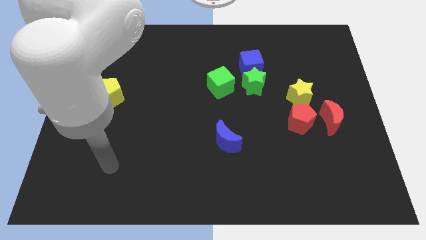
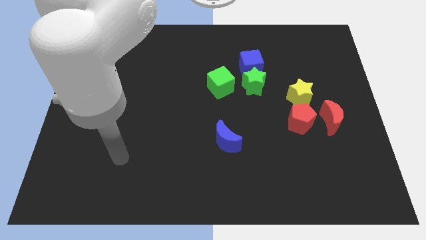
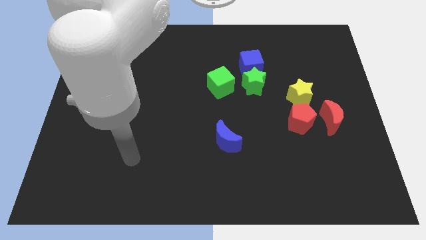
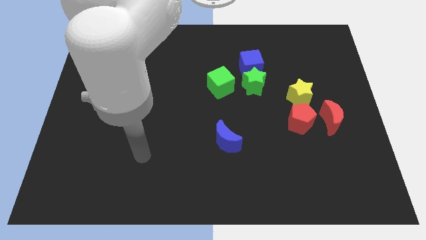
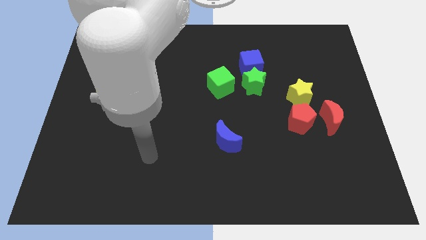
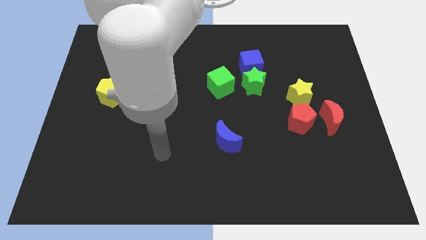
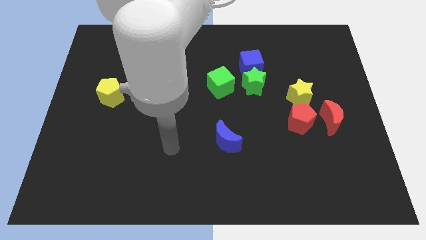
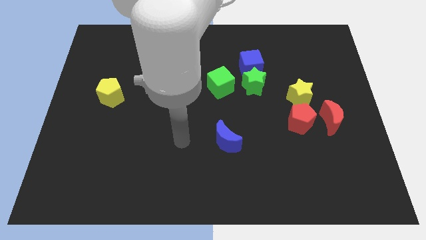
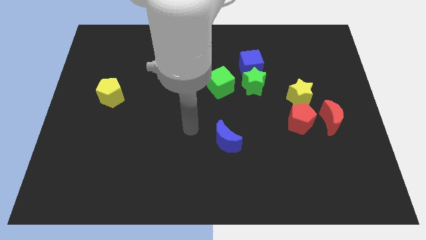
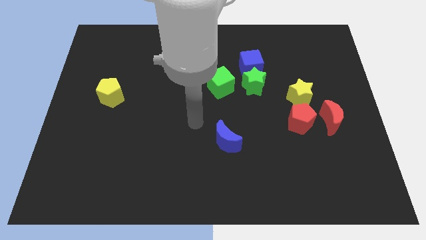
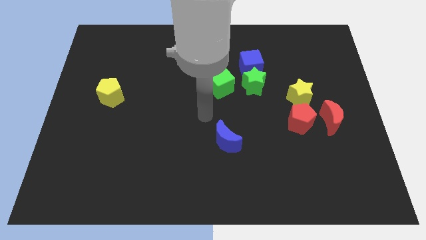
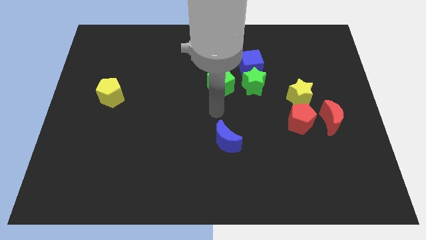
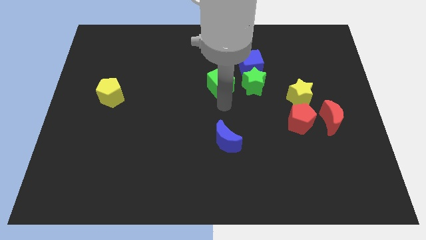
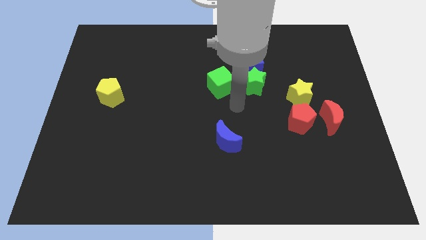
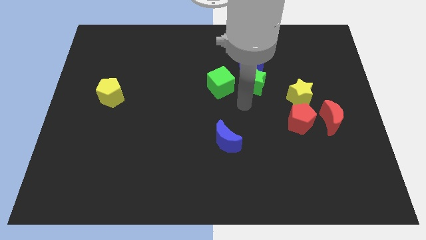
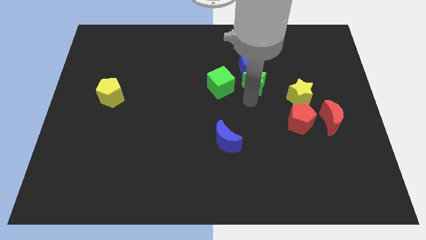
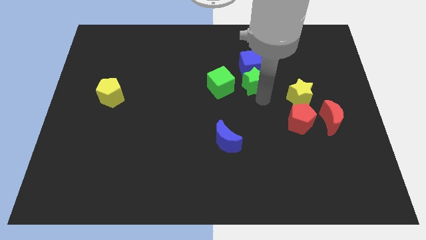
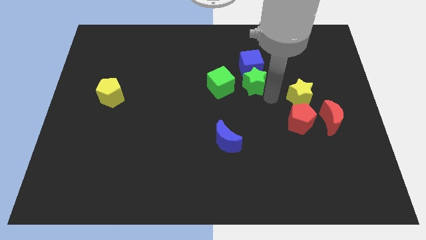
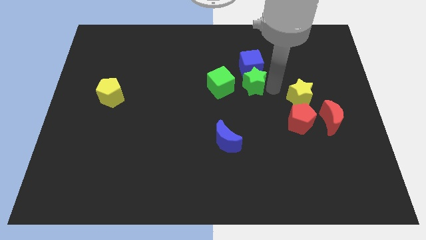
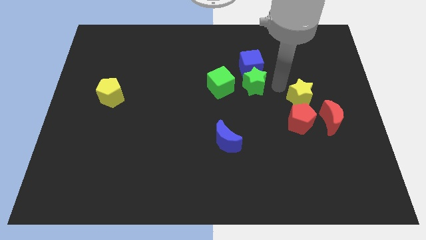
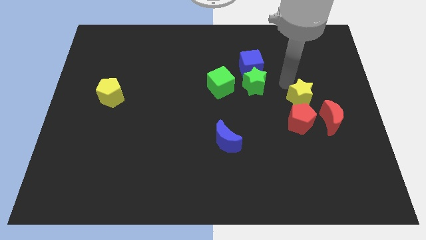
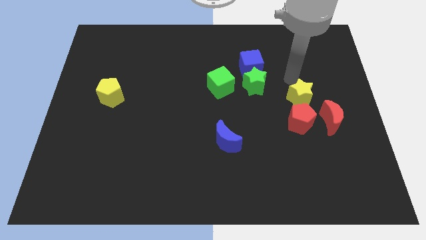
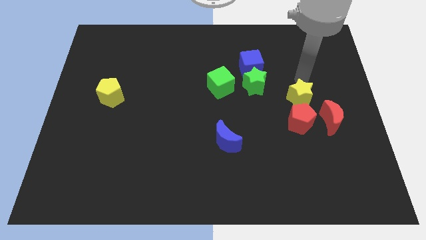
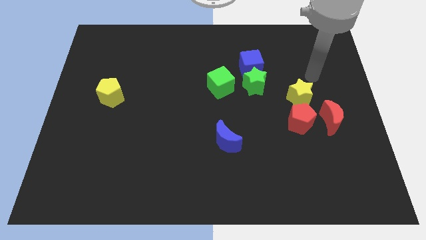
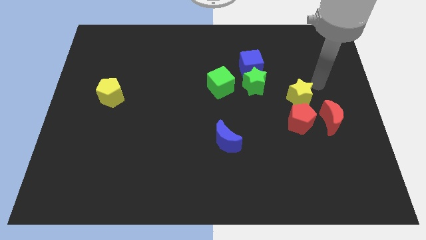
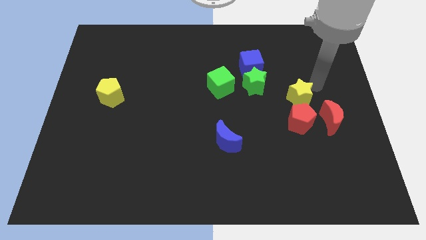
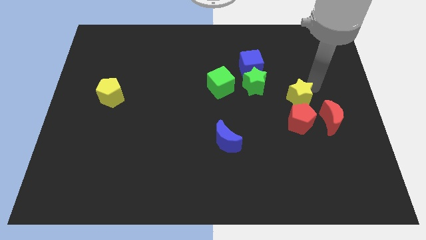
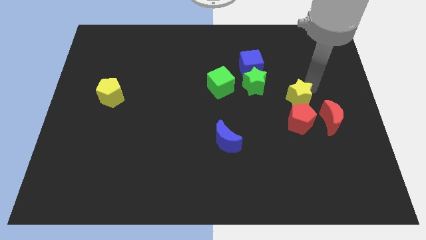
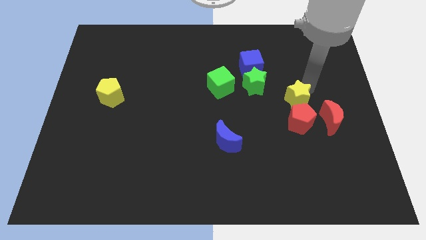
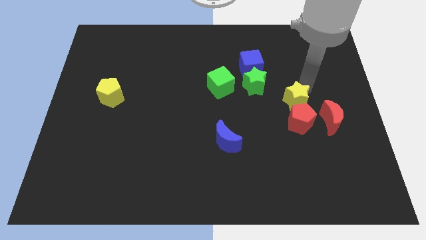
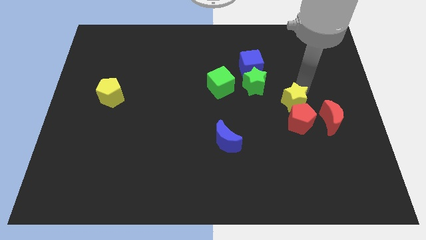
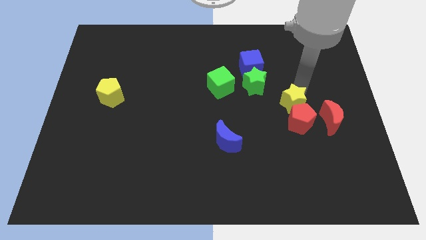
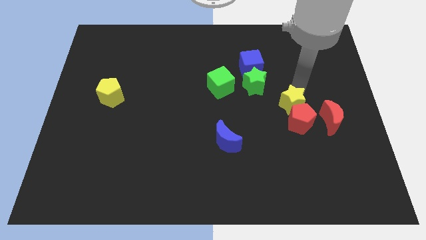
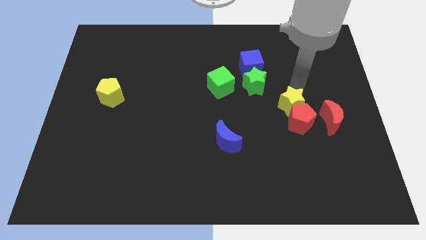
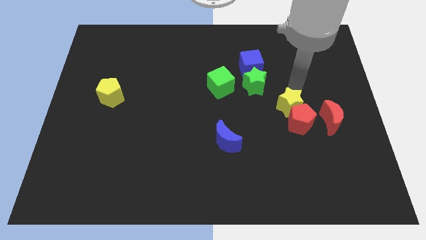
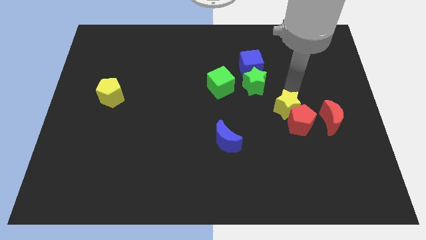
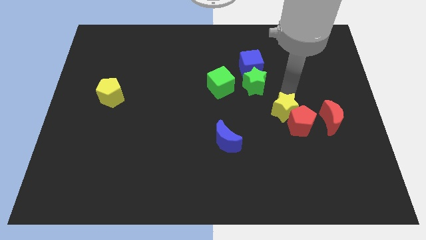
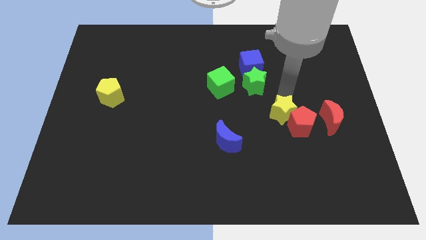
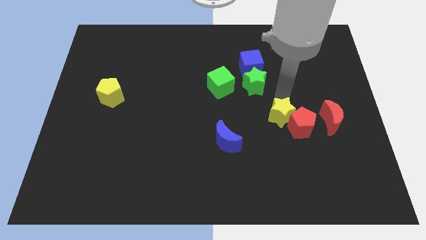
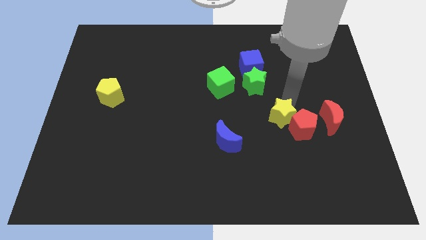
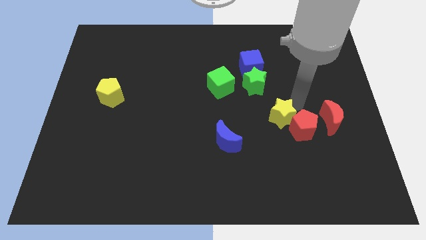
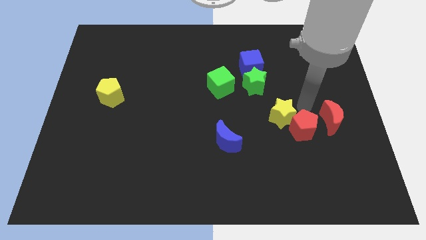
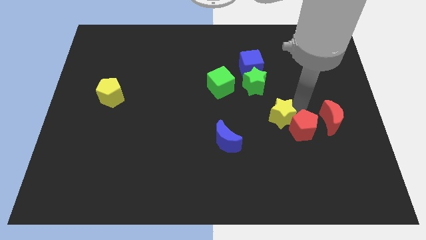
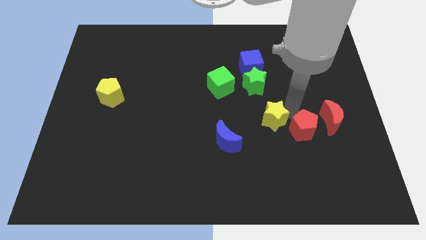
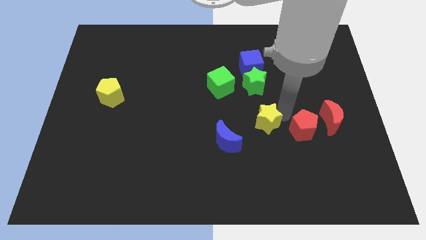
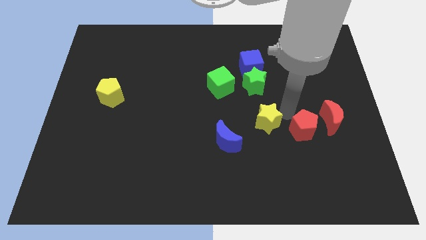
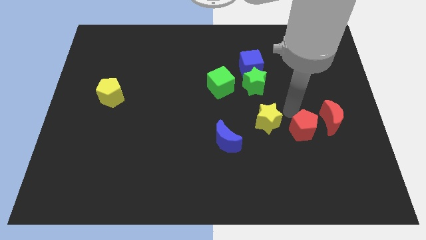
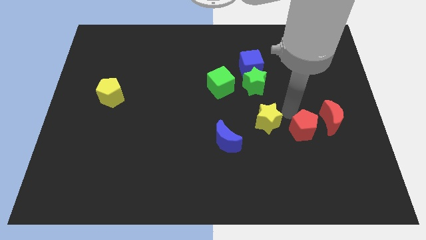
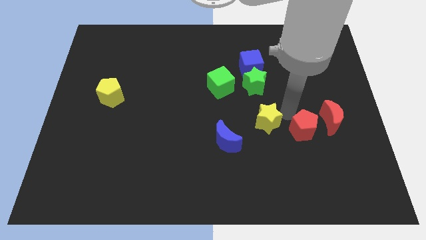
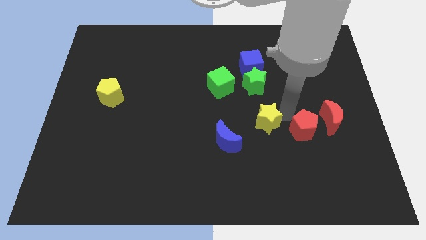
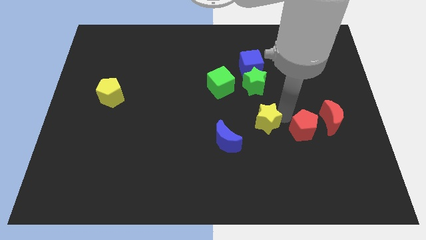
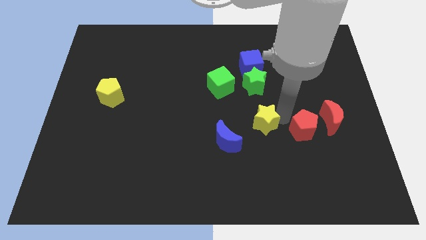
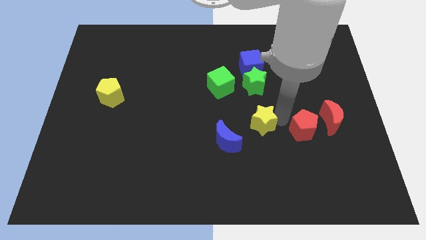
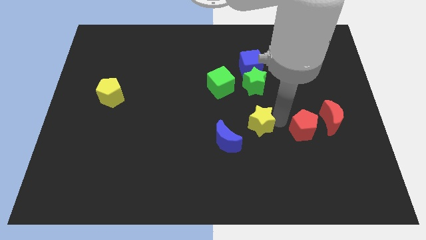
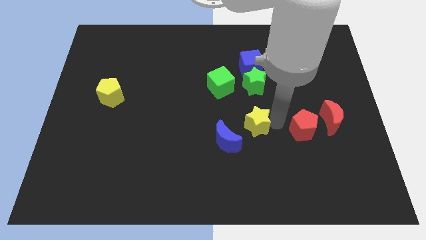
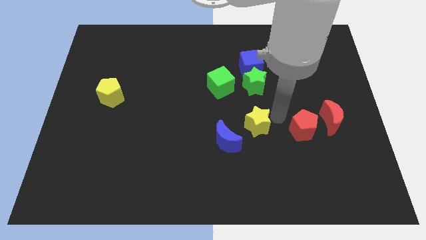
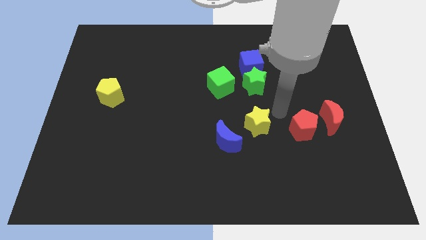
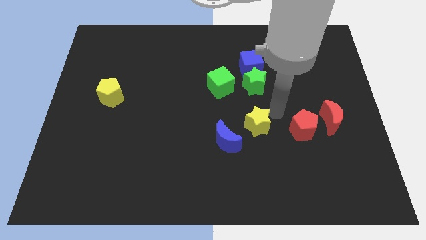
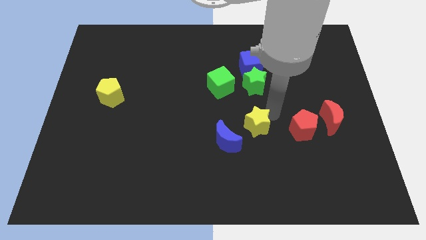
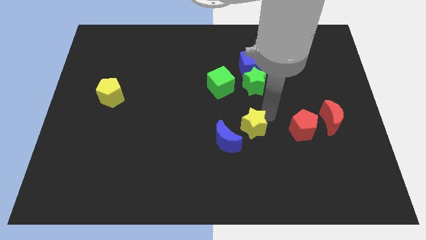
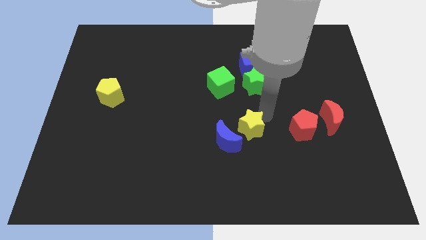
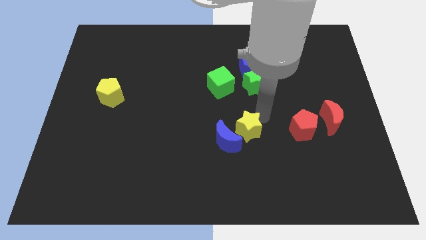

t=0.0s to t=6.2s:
move the yellow star next to the blue moon

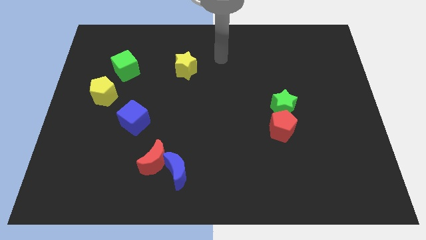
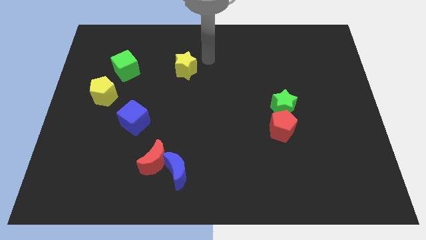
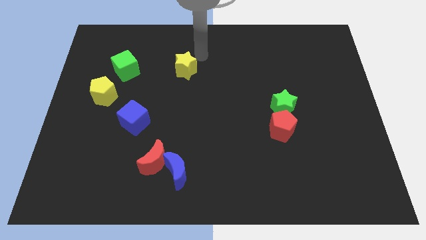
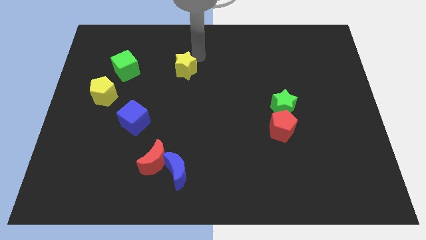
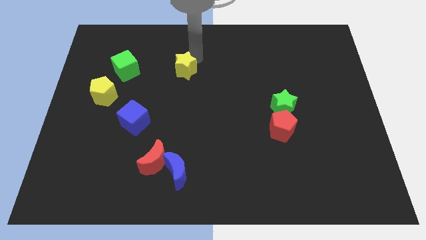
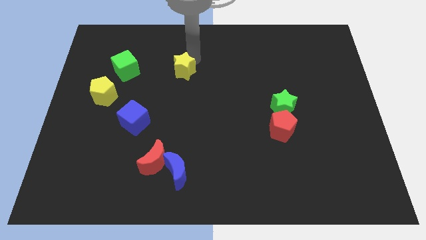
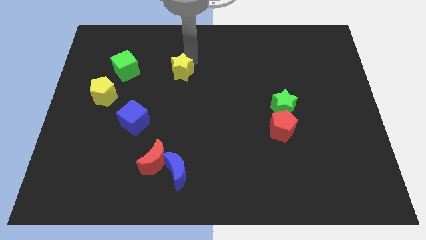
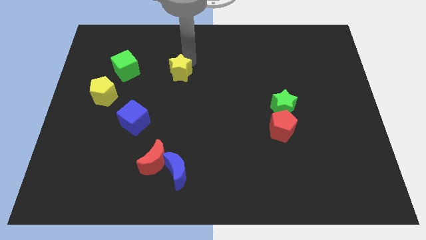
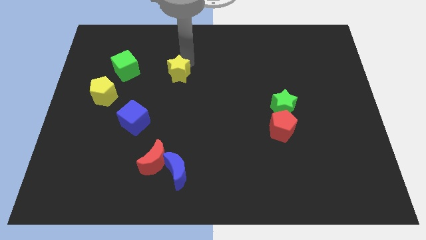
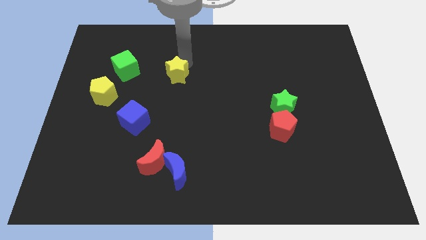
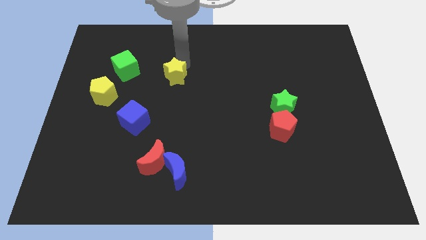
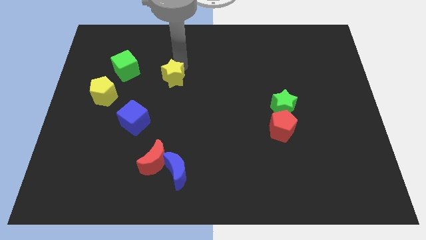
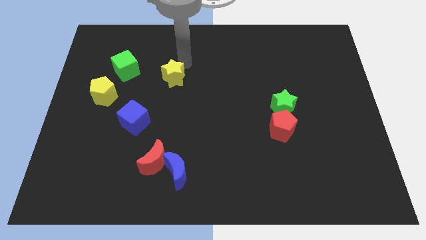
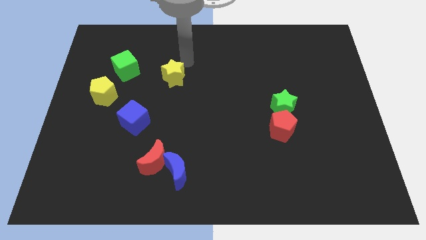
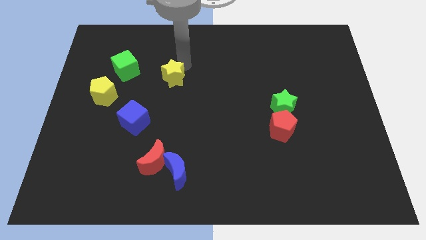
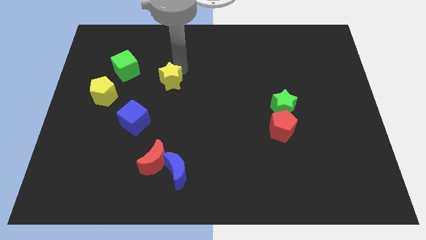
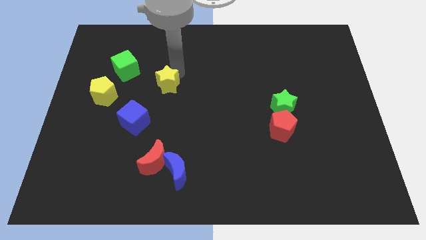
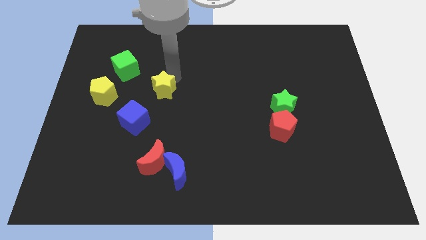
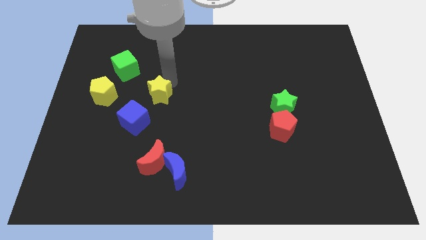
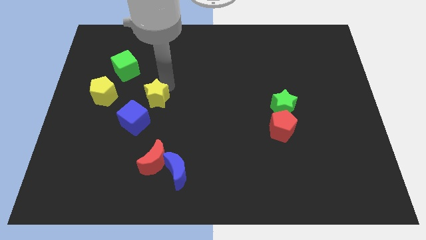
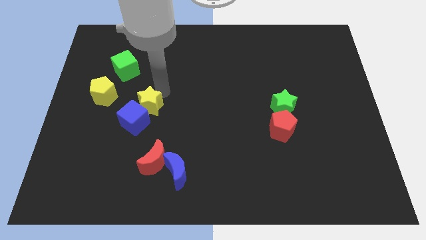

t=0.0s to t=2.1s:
slide the yellow star next to the blue cube
